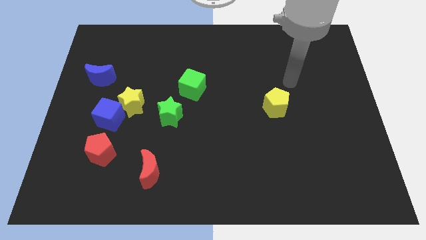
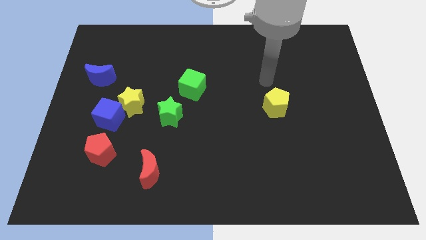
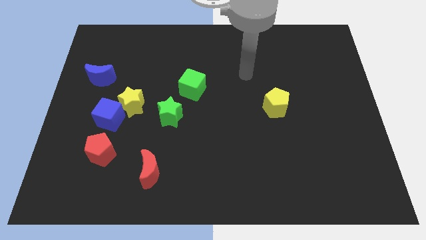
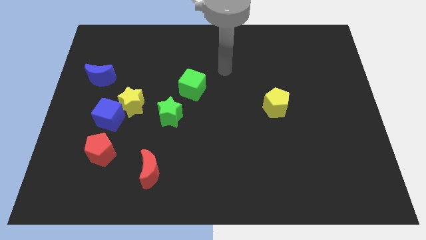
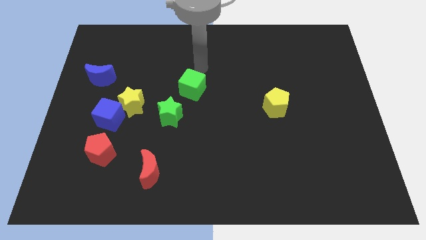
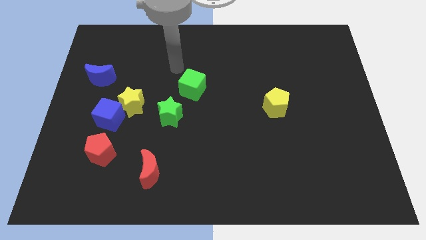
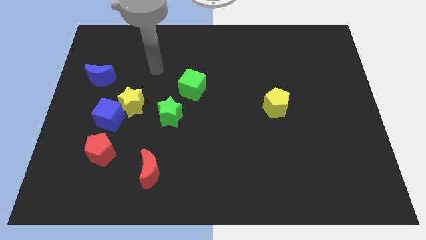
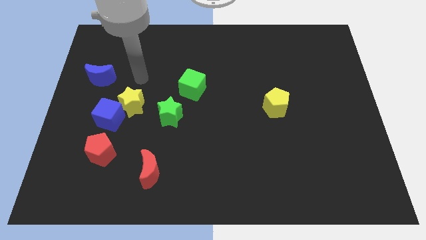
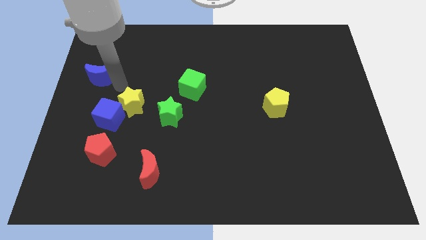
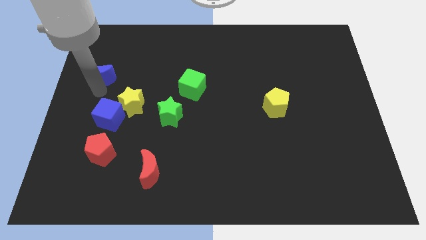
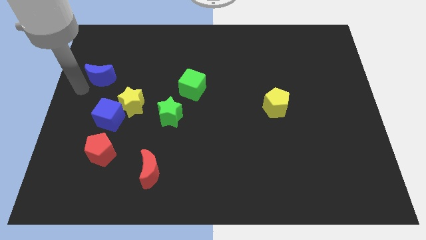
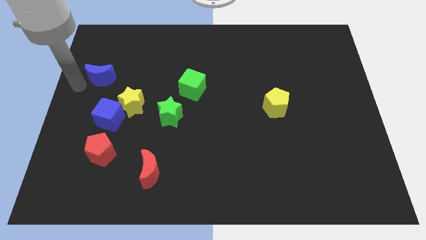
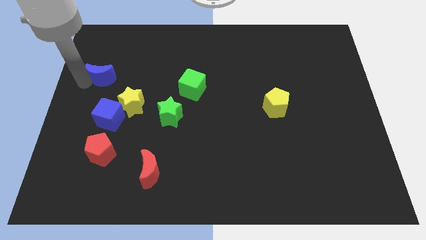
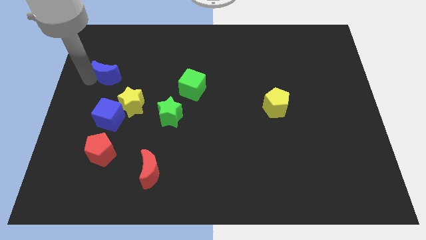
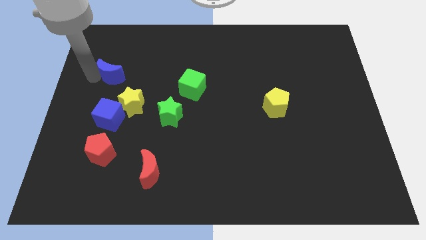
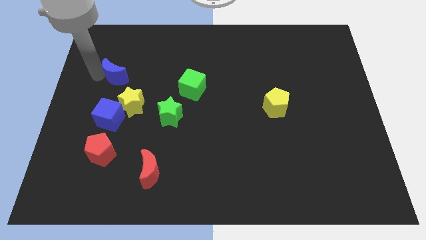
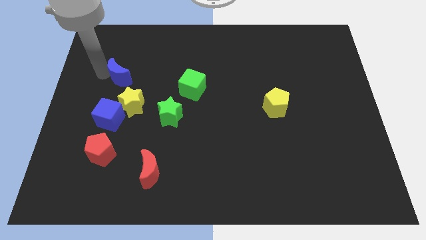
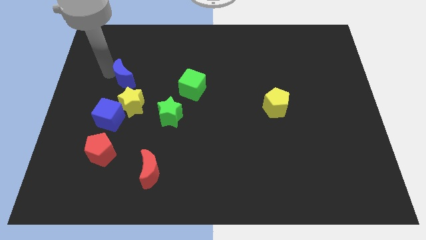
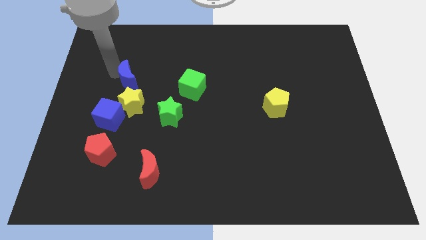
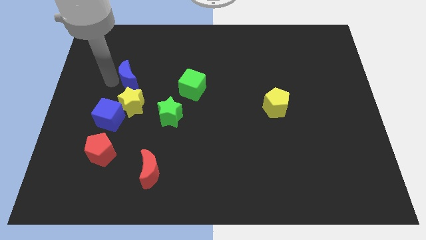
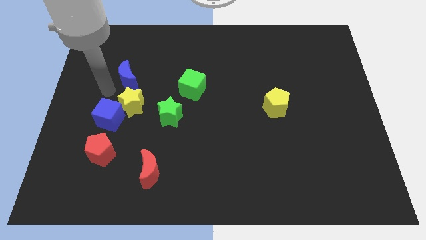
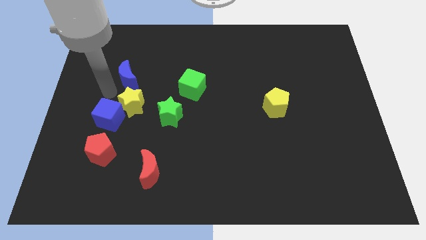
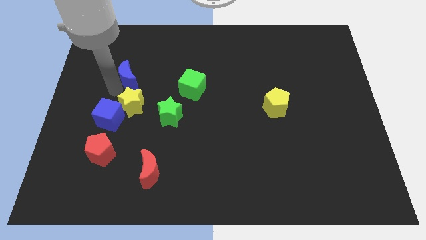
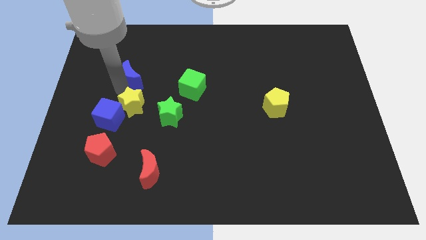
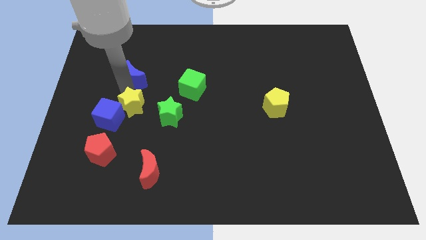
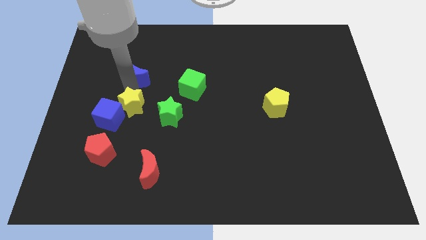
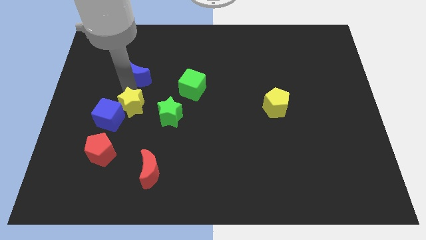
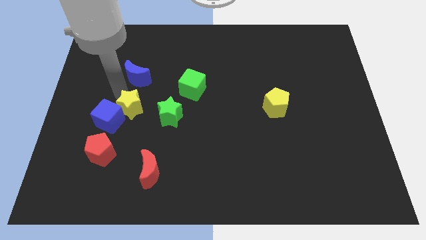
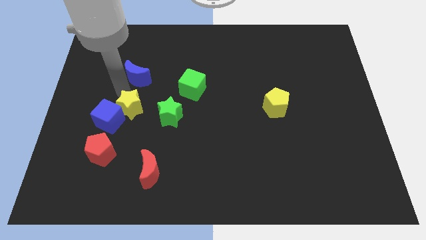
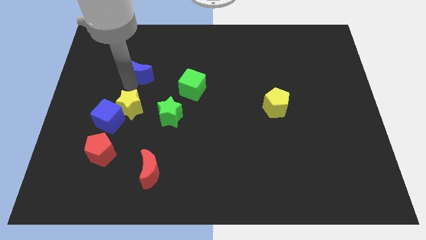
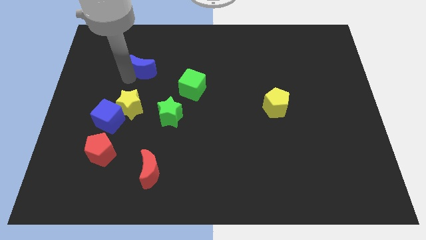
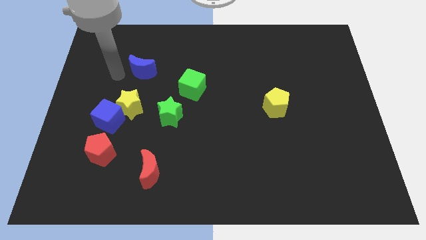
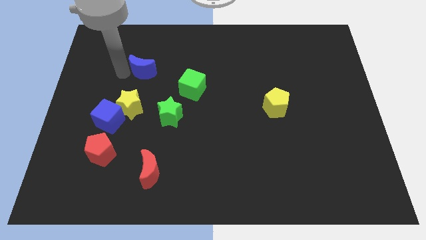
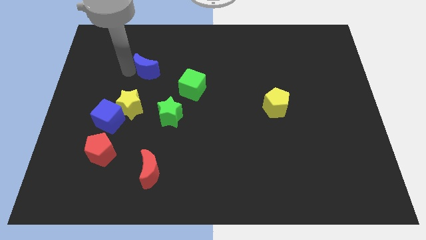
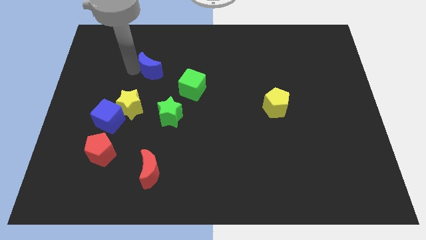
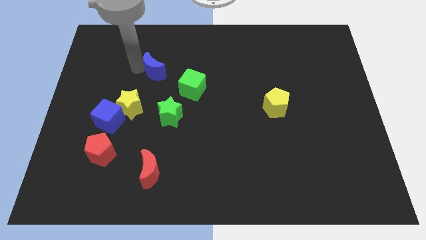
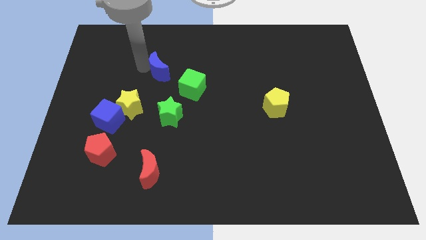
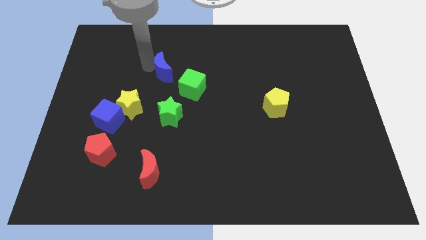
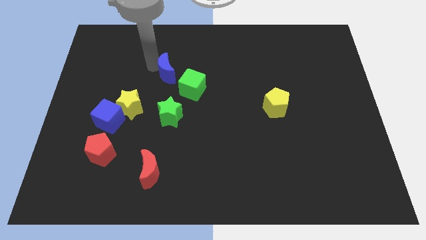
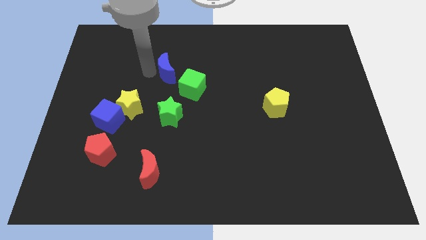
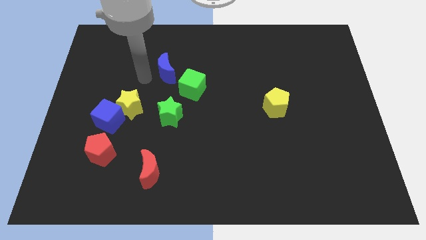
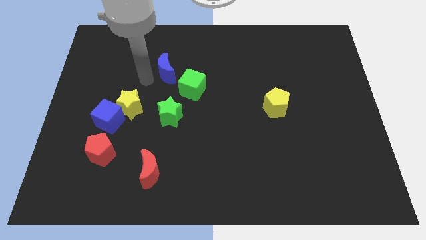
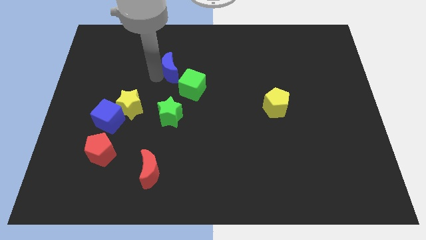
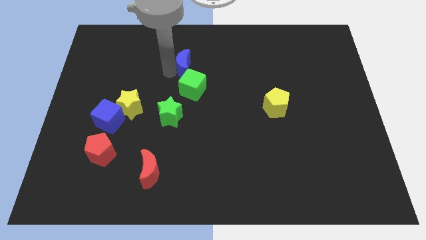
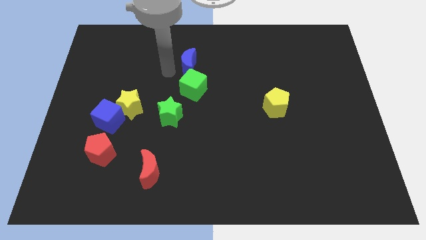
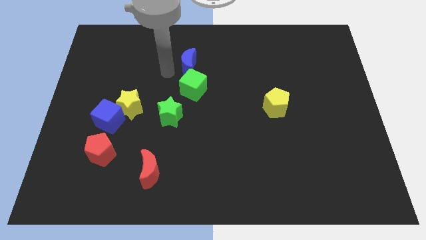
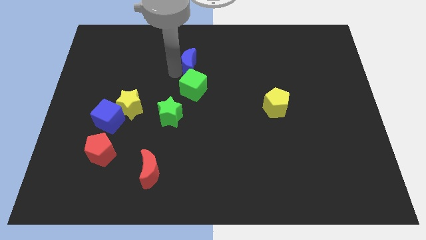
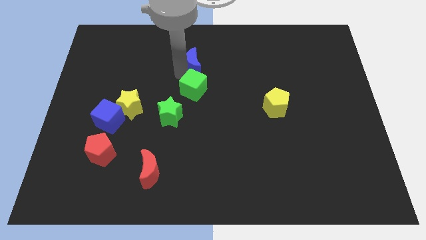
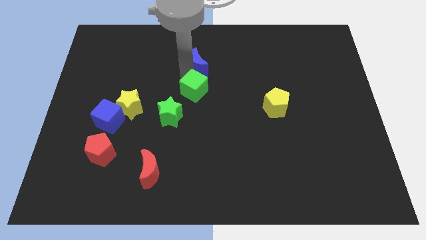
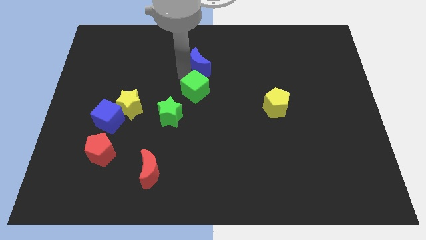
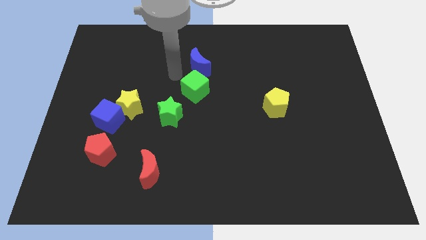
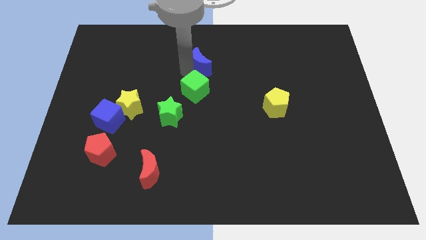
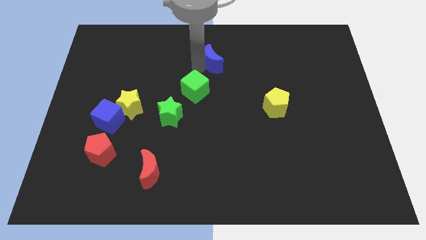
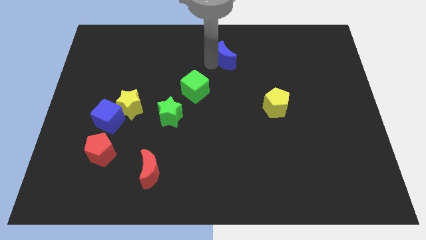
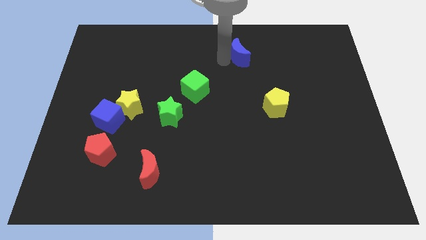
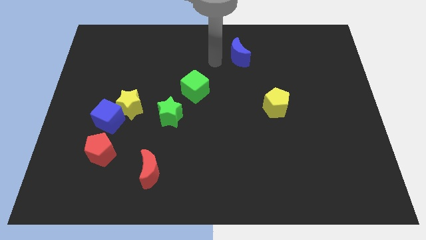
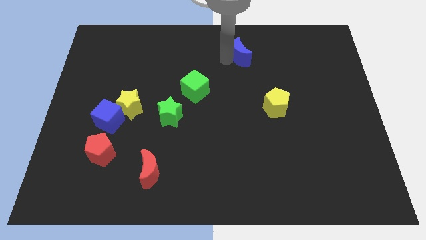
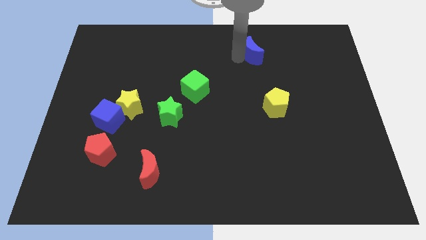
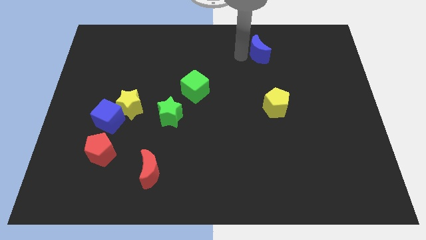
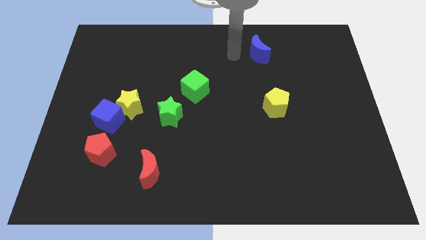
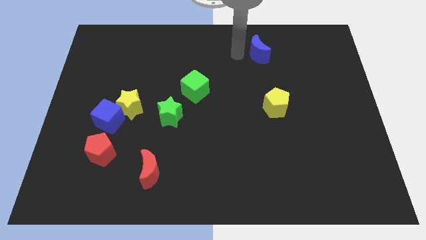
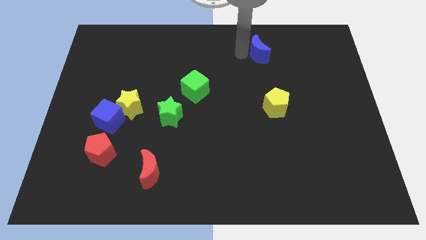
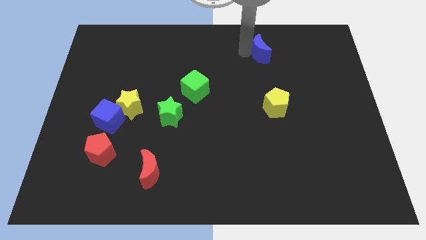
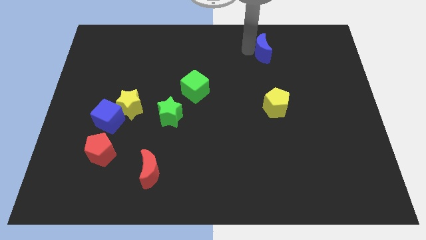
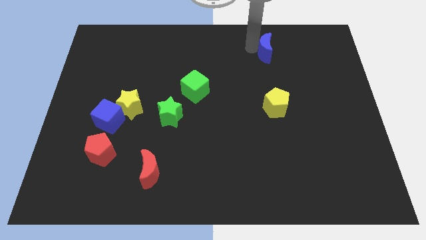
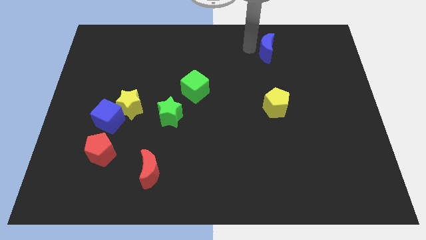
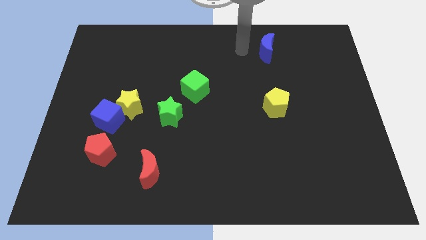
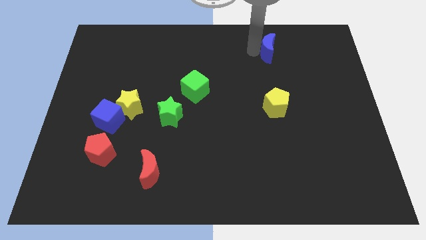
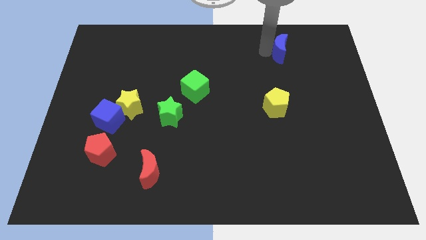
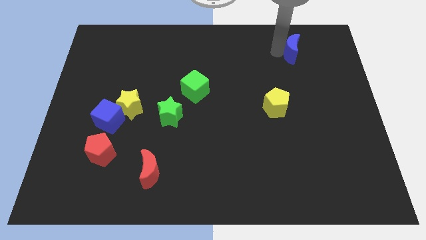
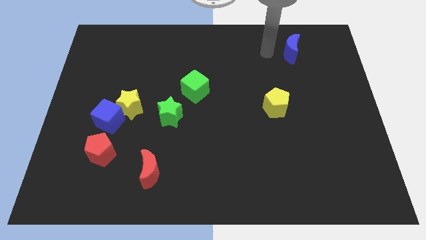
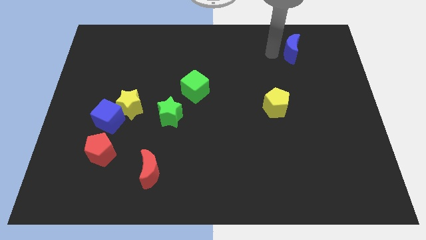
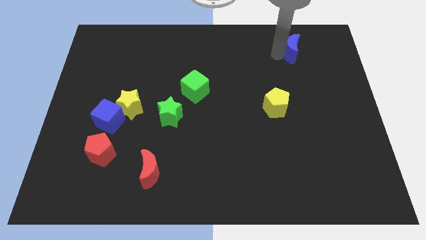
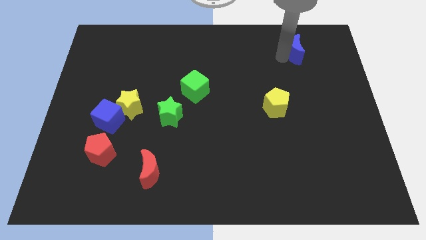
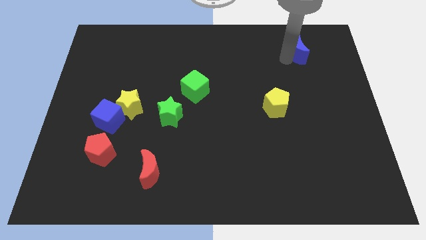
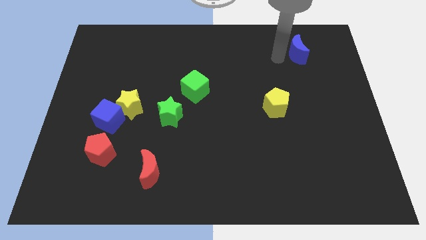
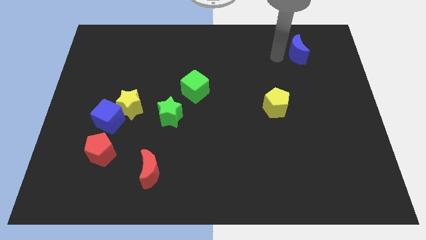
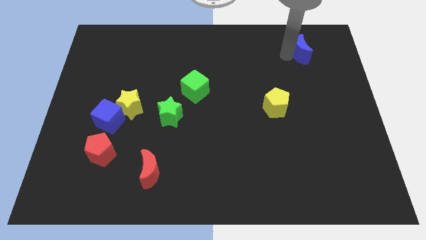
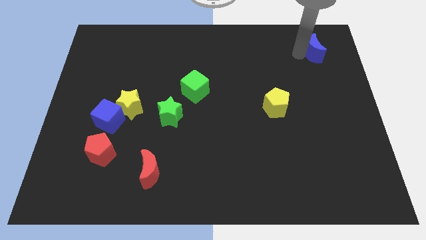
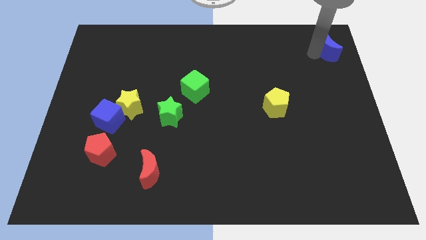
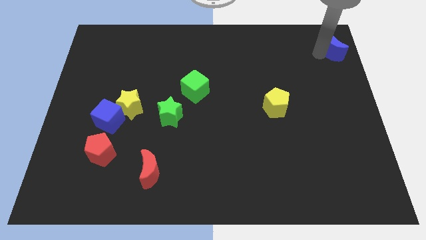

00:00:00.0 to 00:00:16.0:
push the blue moon to the top right corner
